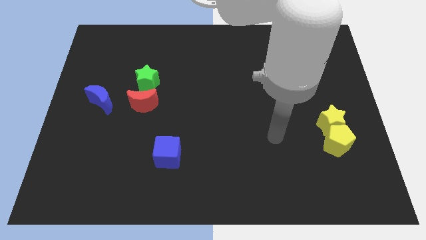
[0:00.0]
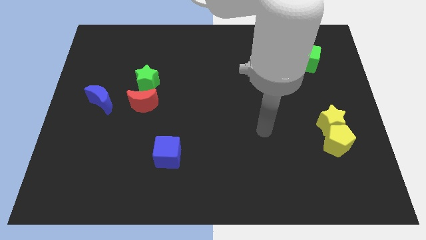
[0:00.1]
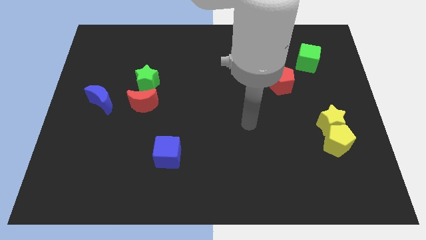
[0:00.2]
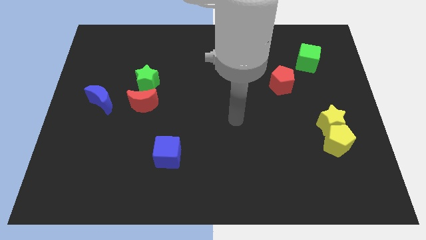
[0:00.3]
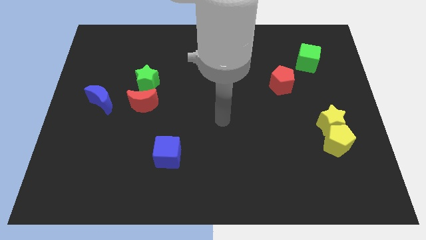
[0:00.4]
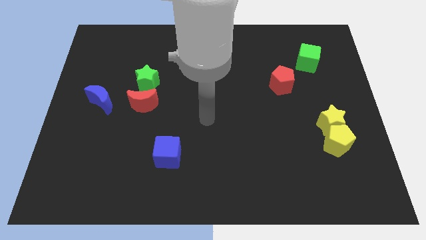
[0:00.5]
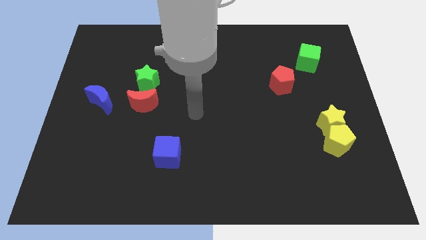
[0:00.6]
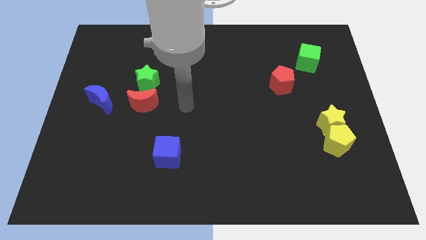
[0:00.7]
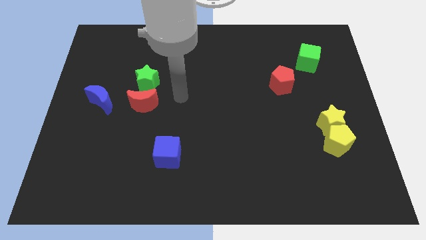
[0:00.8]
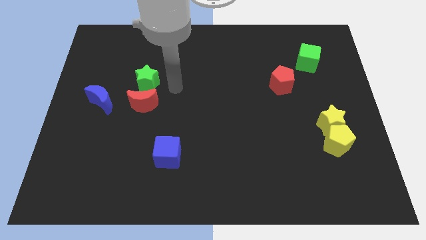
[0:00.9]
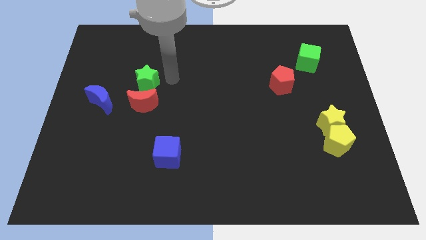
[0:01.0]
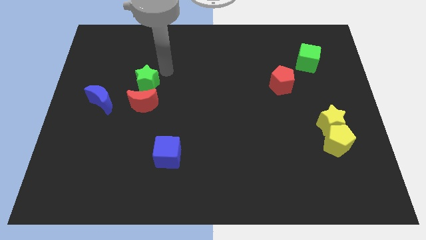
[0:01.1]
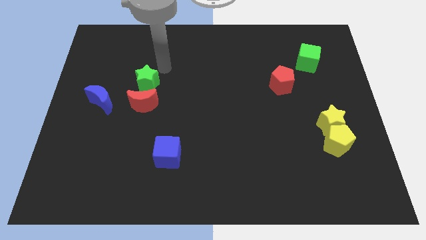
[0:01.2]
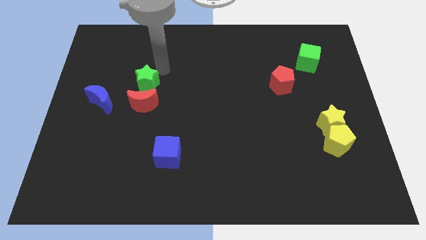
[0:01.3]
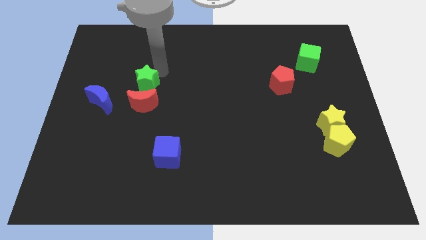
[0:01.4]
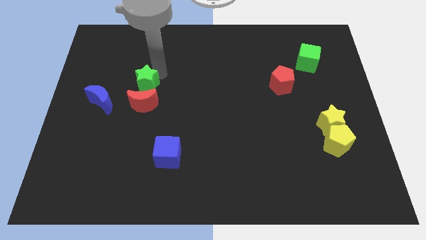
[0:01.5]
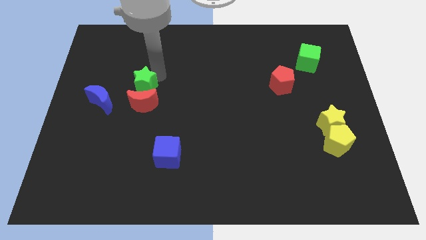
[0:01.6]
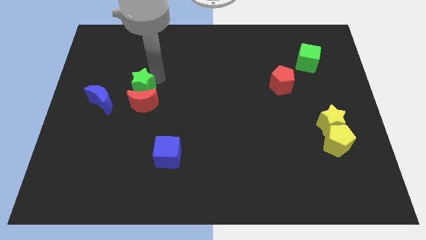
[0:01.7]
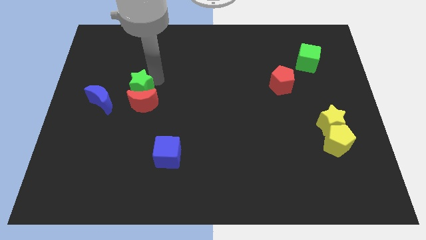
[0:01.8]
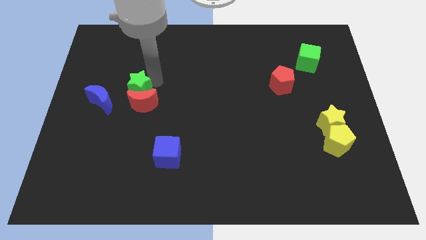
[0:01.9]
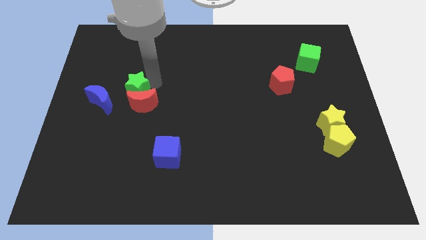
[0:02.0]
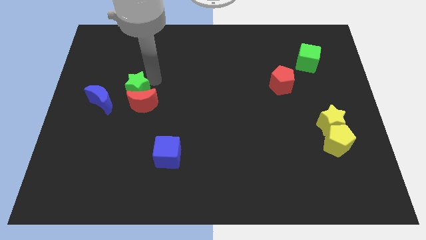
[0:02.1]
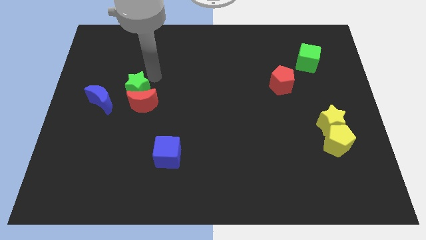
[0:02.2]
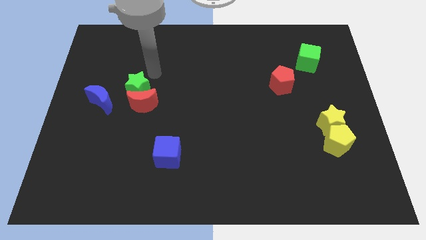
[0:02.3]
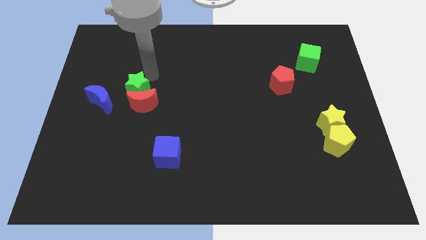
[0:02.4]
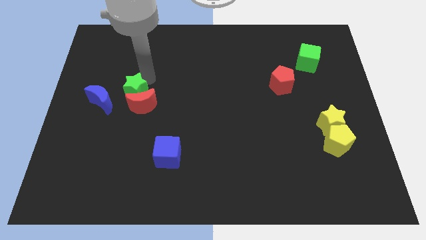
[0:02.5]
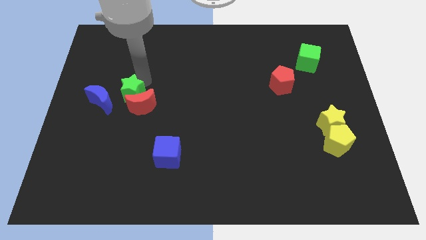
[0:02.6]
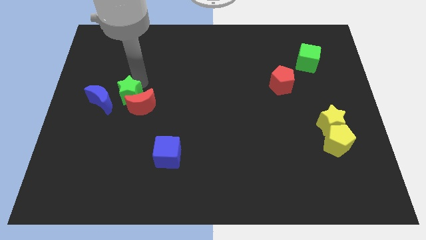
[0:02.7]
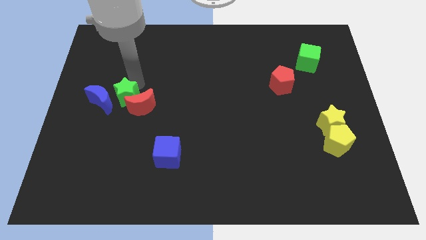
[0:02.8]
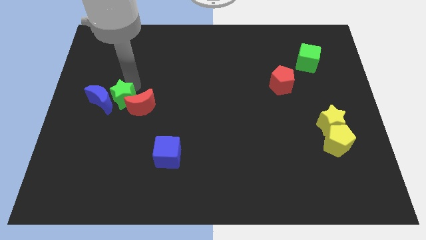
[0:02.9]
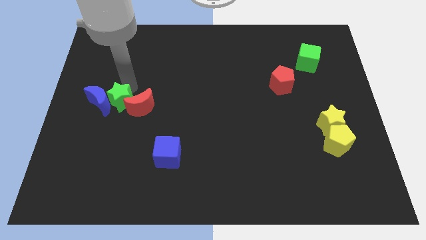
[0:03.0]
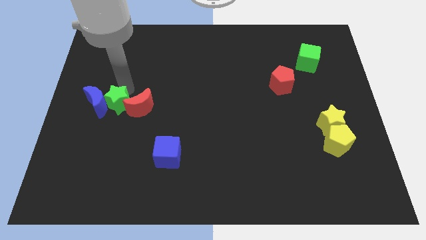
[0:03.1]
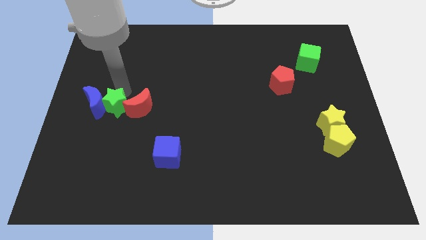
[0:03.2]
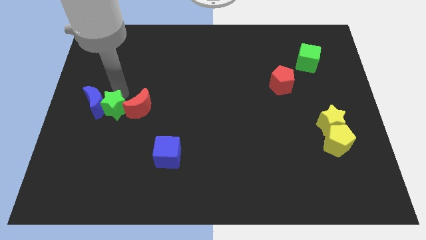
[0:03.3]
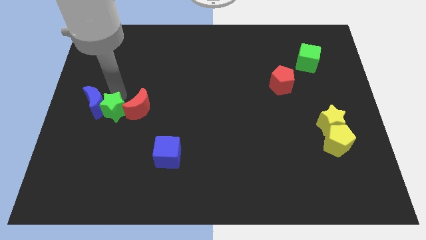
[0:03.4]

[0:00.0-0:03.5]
push the green star somewhat downwards

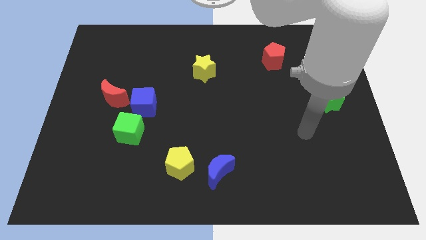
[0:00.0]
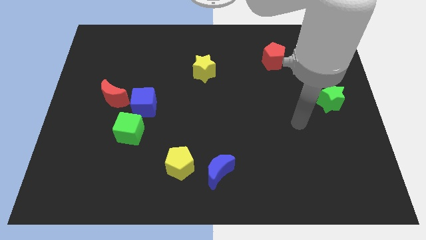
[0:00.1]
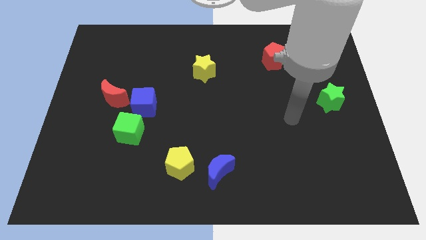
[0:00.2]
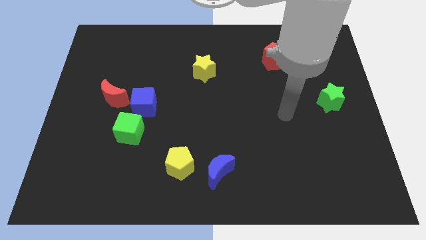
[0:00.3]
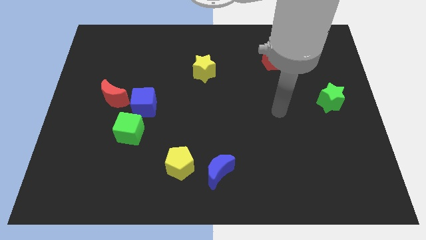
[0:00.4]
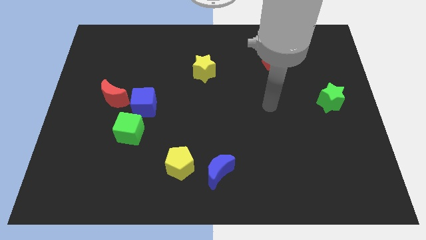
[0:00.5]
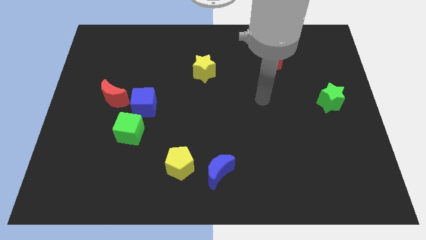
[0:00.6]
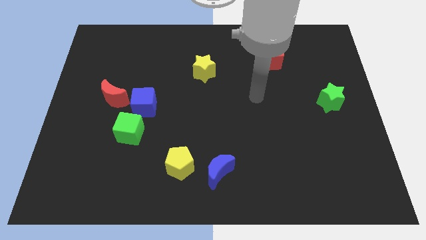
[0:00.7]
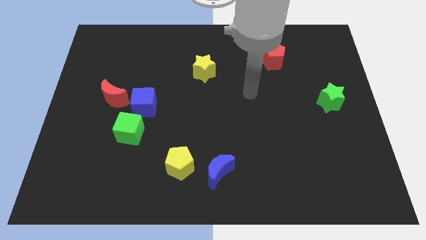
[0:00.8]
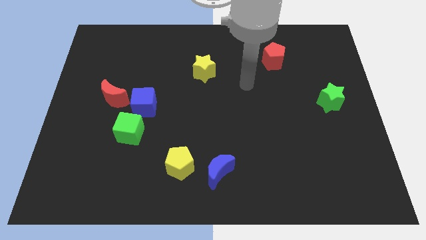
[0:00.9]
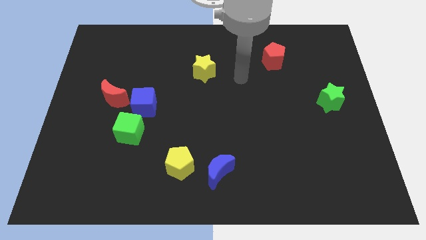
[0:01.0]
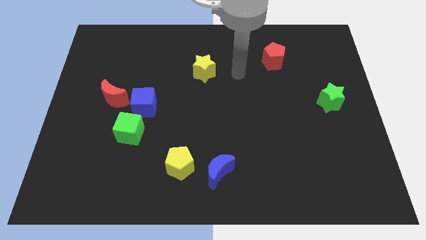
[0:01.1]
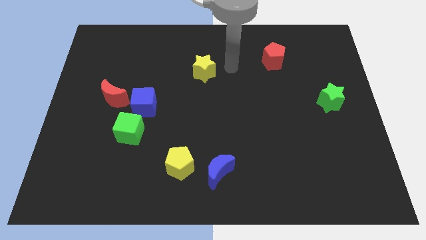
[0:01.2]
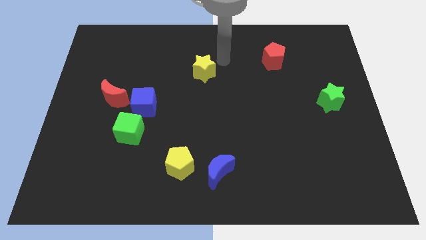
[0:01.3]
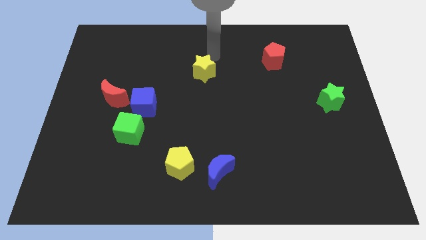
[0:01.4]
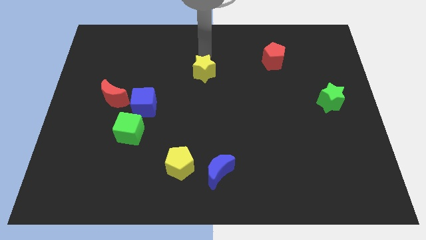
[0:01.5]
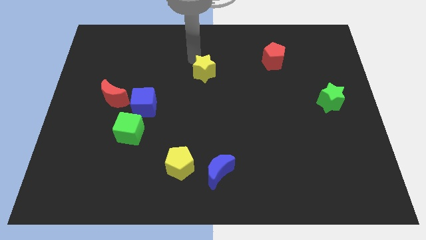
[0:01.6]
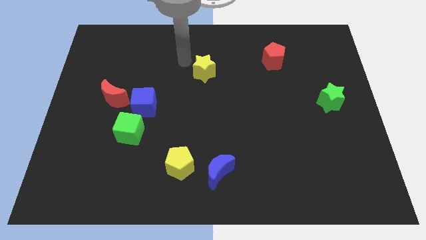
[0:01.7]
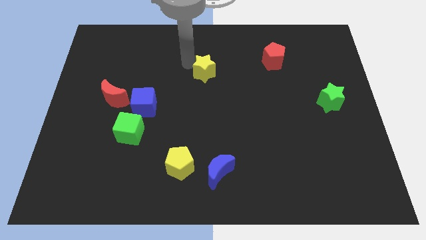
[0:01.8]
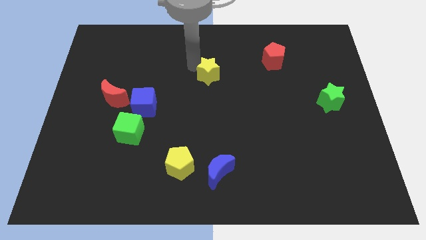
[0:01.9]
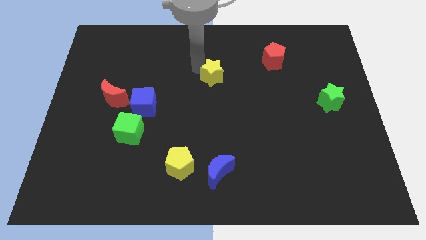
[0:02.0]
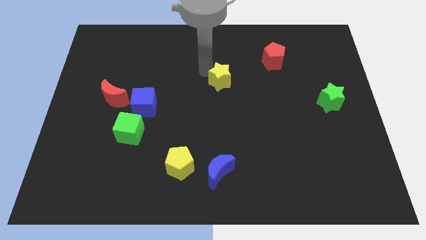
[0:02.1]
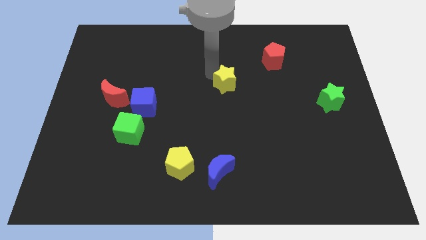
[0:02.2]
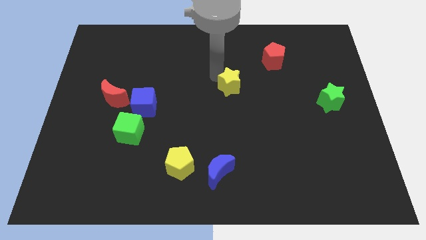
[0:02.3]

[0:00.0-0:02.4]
push the yellow star diagonally down and right somewhat

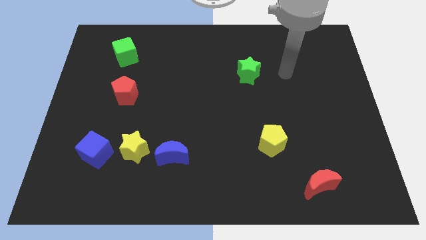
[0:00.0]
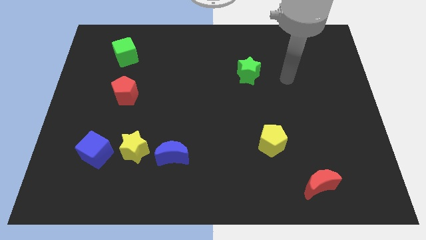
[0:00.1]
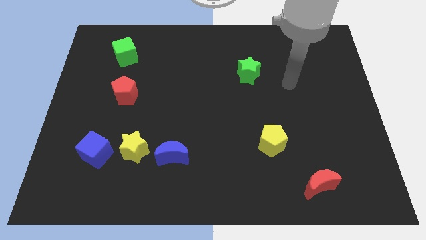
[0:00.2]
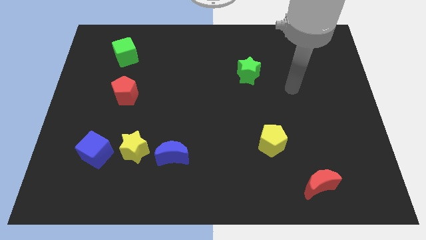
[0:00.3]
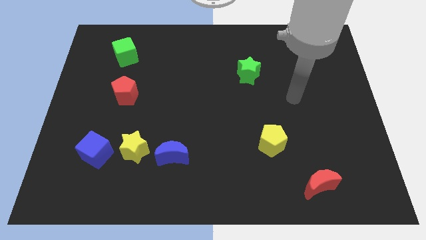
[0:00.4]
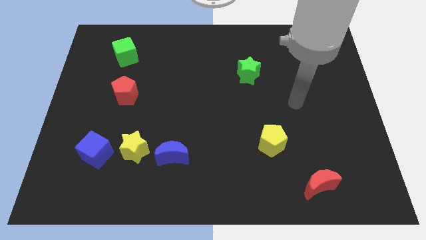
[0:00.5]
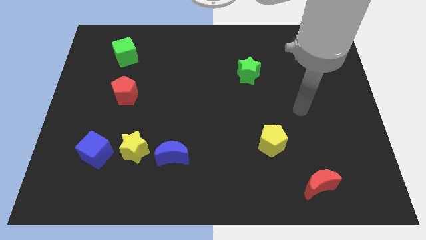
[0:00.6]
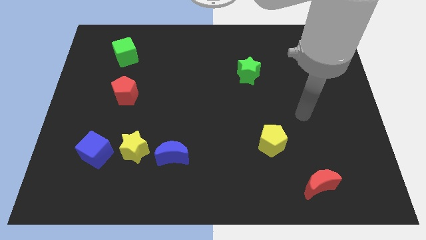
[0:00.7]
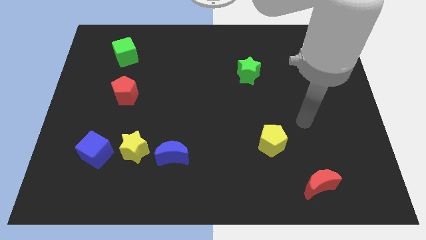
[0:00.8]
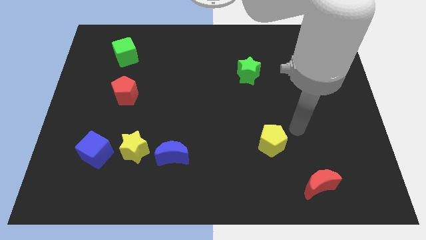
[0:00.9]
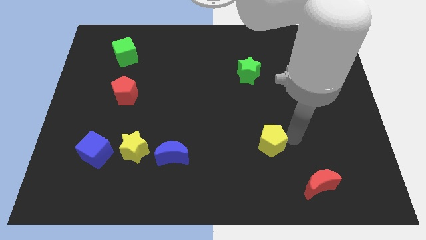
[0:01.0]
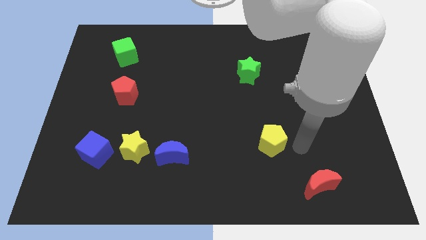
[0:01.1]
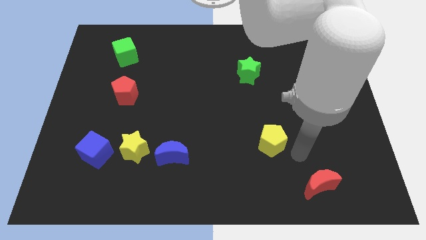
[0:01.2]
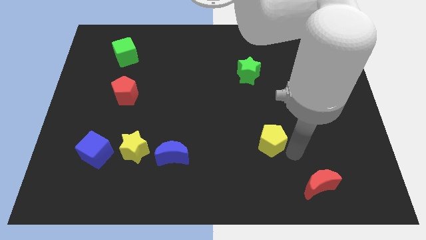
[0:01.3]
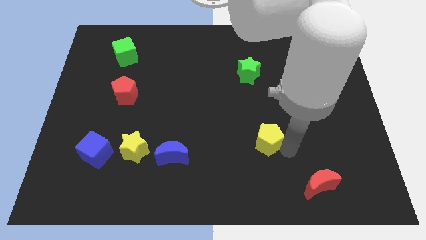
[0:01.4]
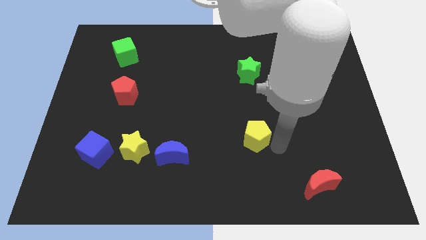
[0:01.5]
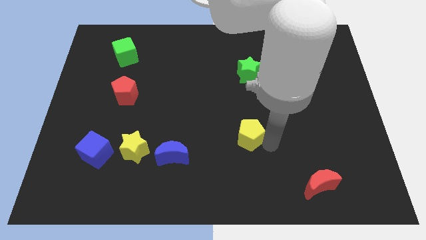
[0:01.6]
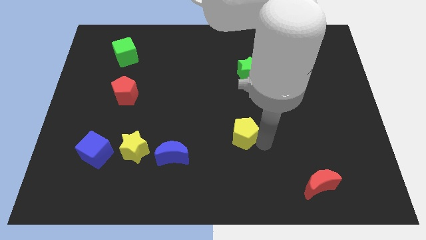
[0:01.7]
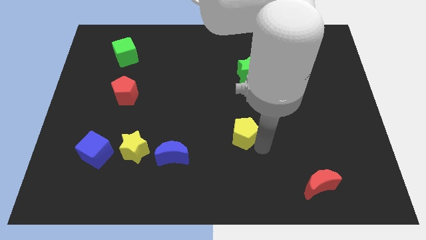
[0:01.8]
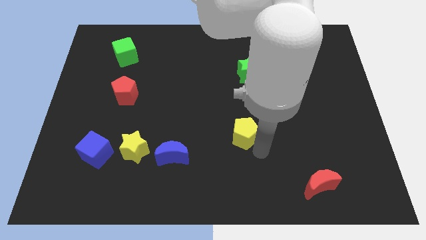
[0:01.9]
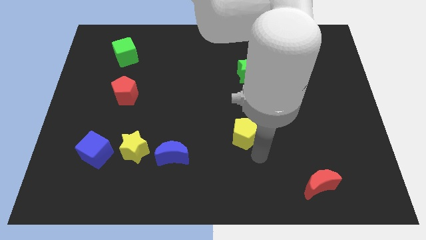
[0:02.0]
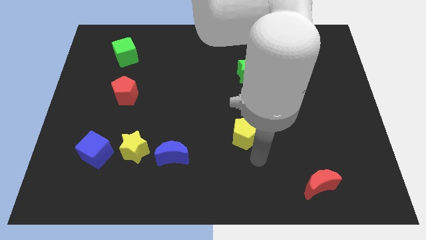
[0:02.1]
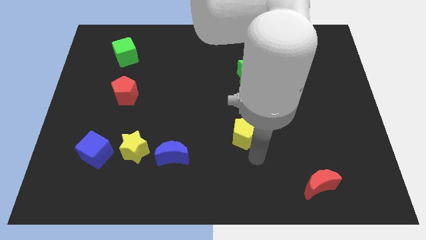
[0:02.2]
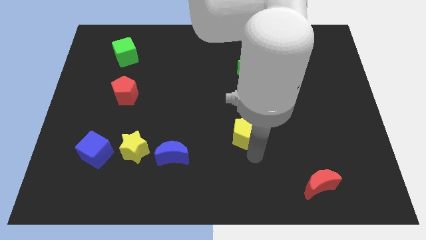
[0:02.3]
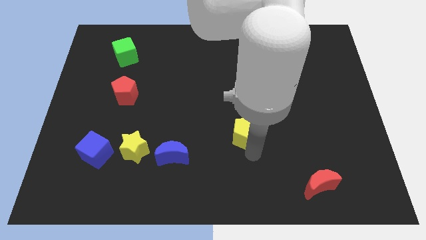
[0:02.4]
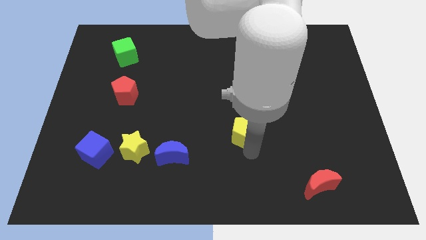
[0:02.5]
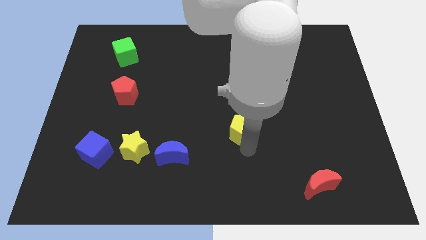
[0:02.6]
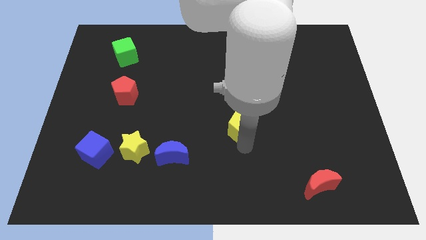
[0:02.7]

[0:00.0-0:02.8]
push the yellow pentagon a bit upwards and to the left
